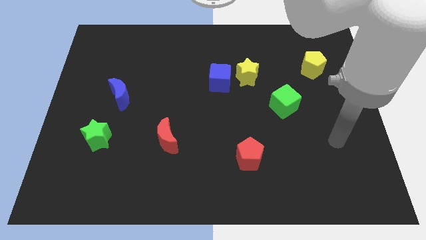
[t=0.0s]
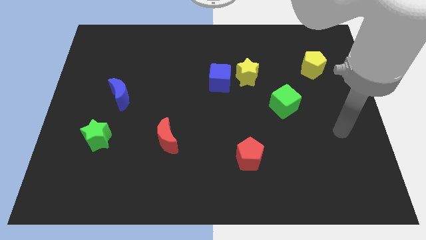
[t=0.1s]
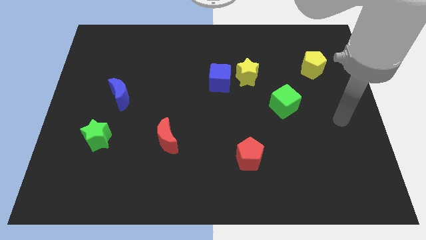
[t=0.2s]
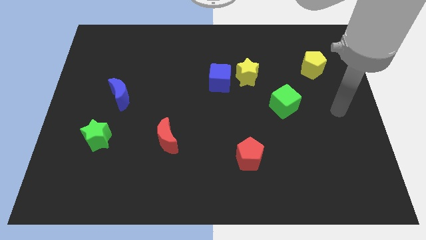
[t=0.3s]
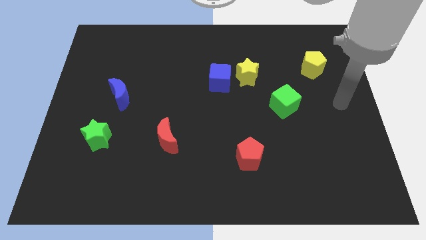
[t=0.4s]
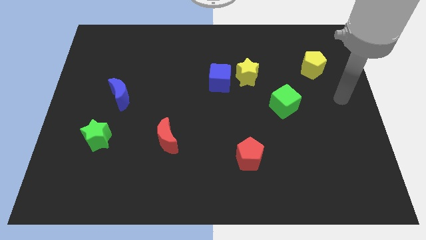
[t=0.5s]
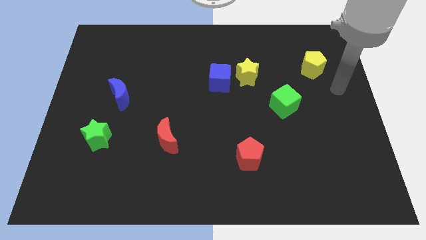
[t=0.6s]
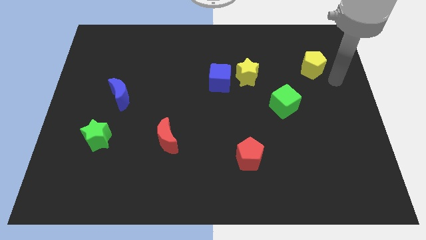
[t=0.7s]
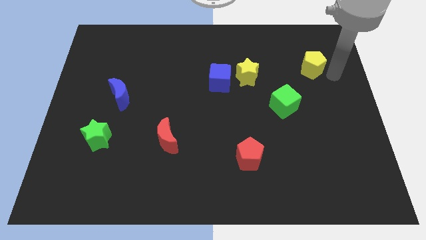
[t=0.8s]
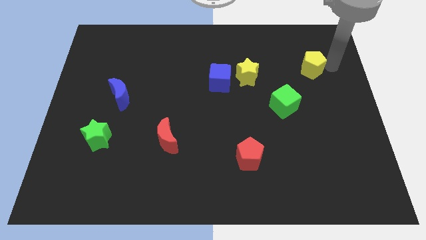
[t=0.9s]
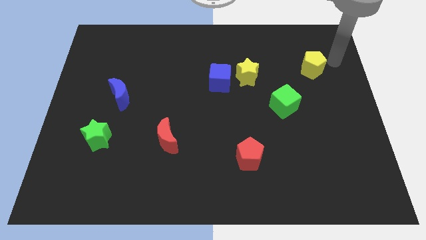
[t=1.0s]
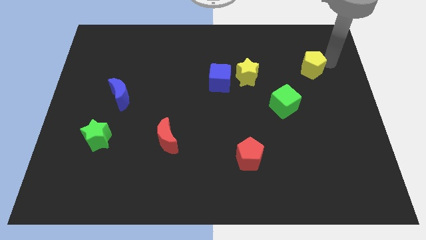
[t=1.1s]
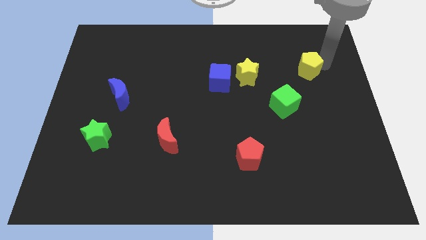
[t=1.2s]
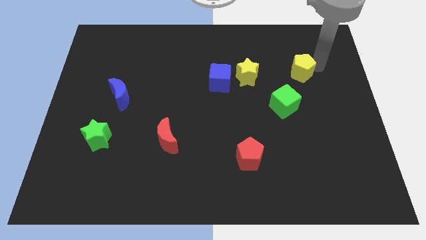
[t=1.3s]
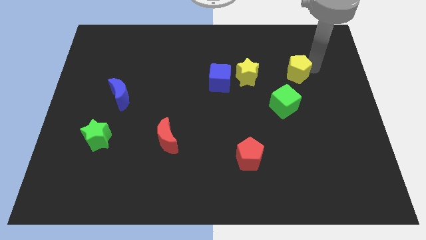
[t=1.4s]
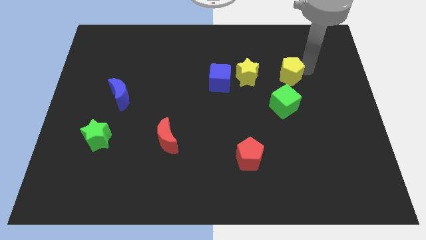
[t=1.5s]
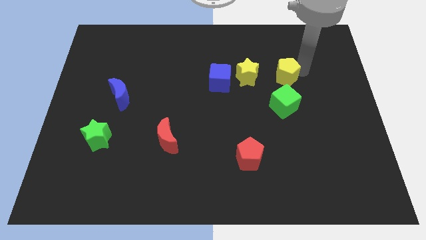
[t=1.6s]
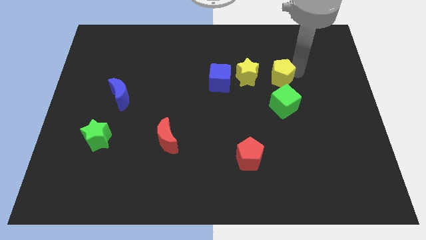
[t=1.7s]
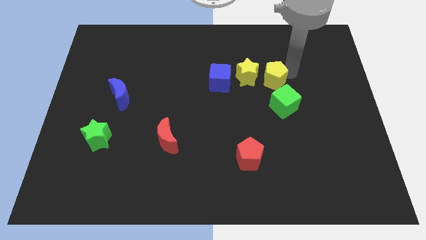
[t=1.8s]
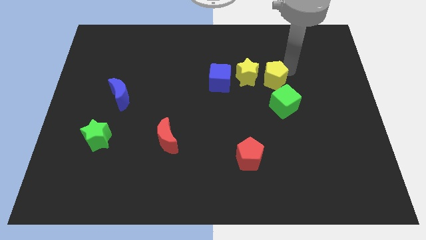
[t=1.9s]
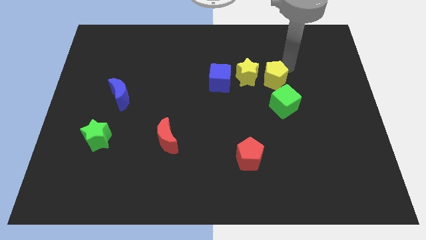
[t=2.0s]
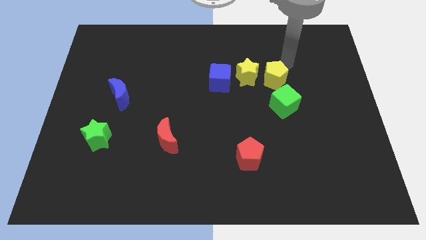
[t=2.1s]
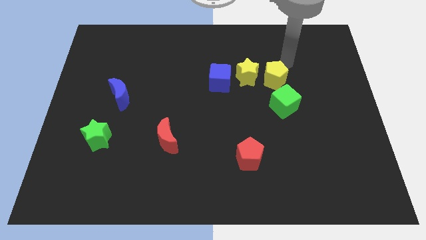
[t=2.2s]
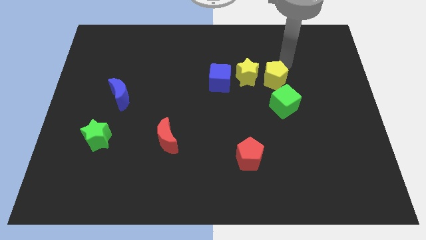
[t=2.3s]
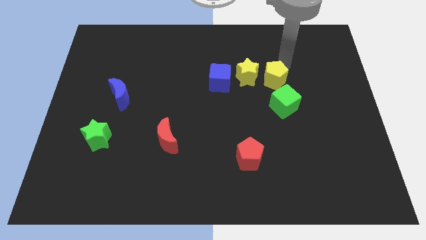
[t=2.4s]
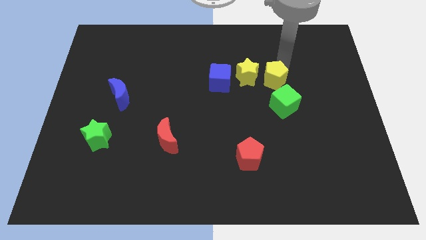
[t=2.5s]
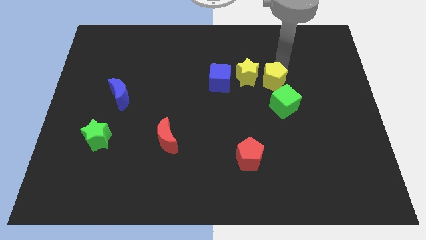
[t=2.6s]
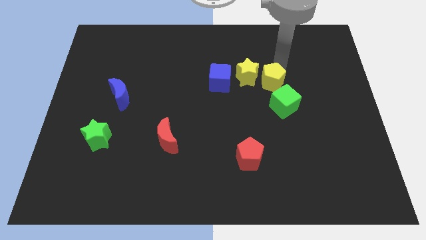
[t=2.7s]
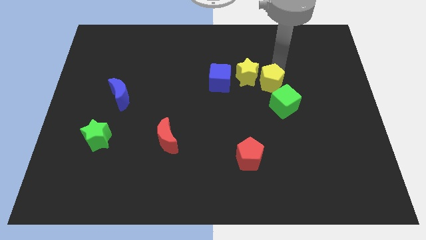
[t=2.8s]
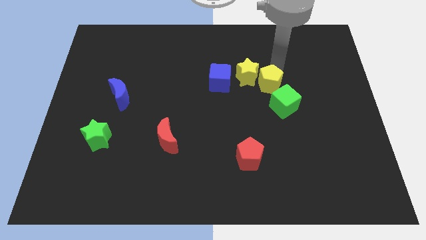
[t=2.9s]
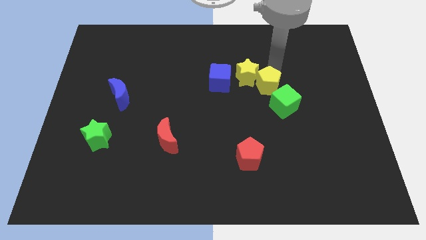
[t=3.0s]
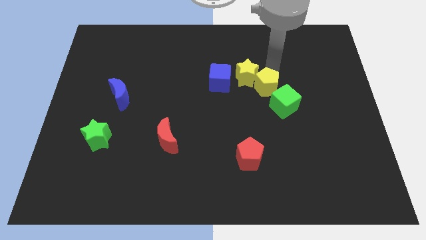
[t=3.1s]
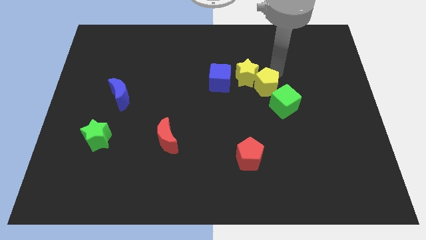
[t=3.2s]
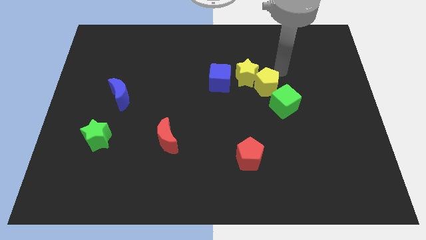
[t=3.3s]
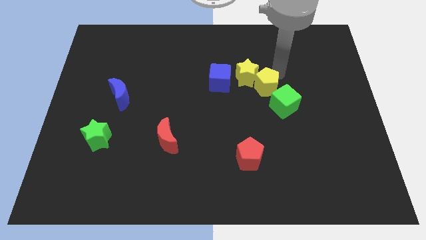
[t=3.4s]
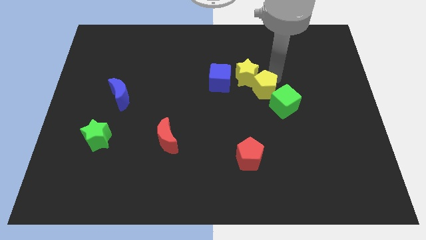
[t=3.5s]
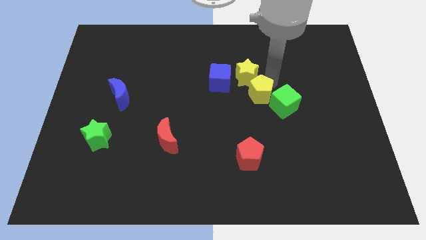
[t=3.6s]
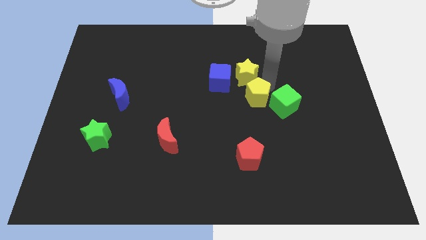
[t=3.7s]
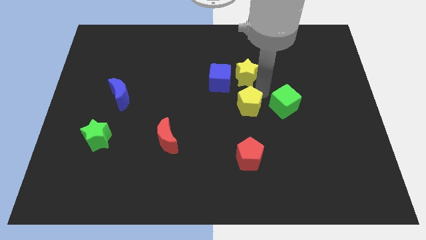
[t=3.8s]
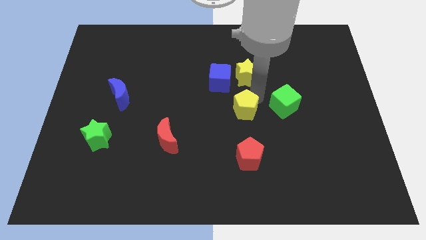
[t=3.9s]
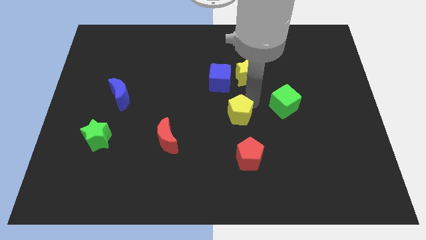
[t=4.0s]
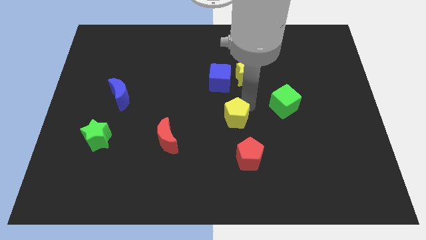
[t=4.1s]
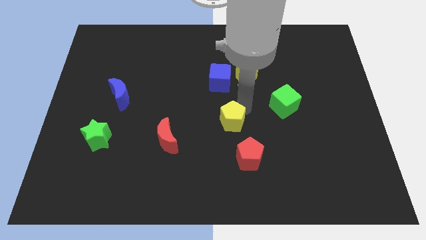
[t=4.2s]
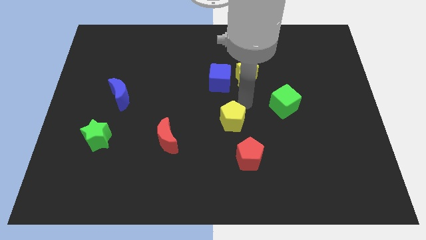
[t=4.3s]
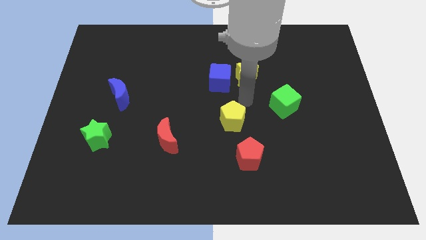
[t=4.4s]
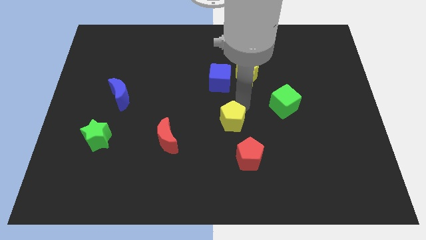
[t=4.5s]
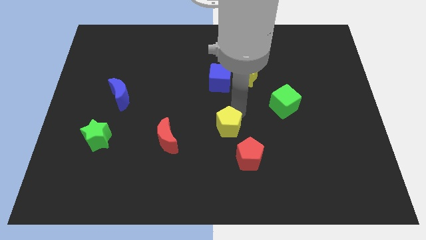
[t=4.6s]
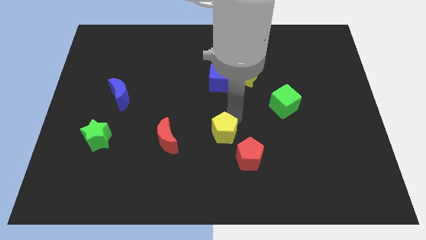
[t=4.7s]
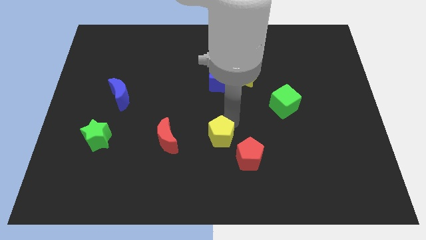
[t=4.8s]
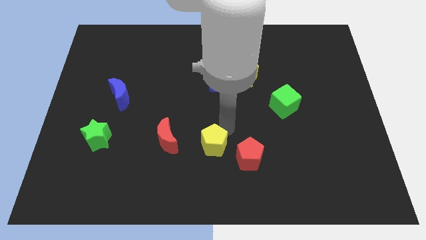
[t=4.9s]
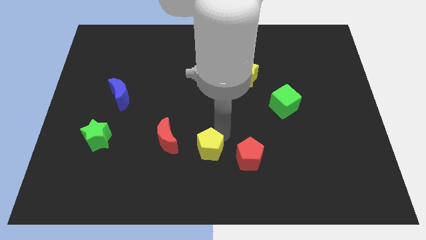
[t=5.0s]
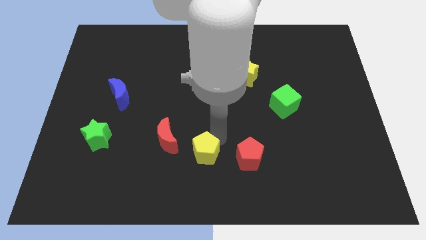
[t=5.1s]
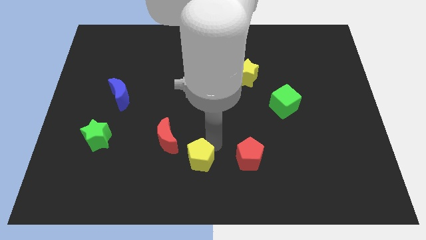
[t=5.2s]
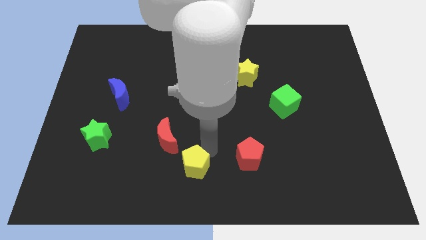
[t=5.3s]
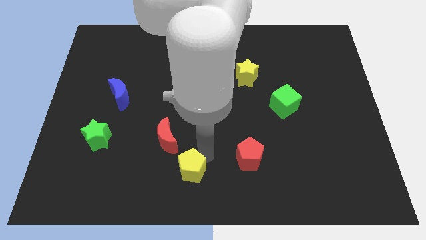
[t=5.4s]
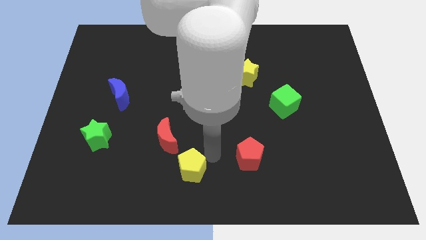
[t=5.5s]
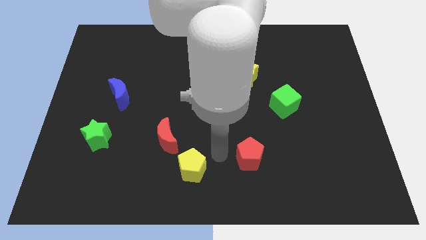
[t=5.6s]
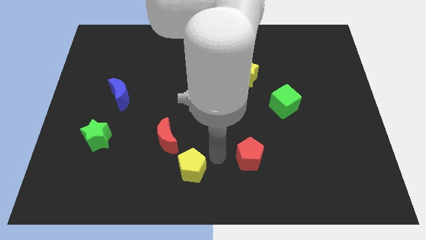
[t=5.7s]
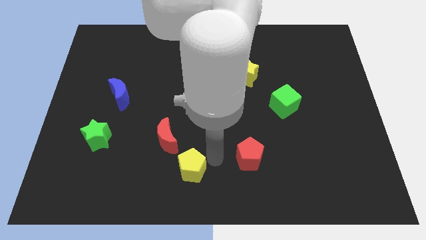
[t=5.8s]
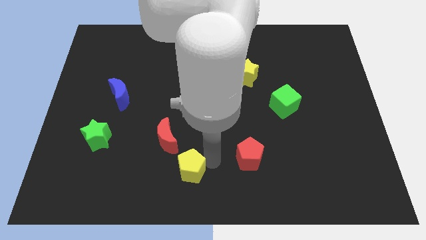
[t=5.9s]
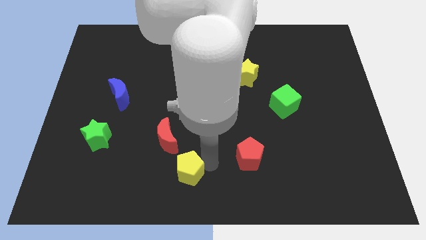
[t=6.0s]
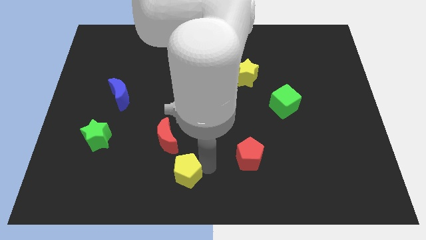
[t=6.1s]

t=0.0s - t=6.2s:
put the yellow pentagon below the red moon

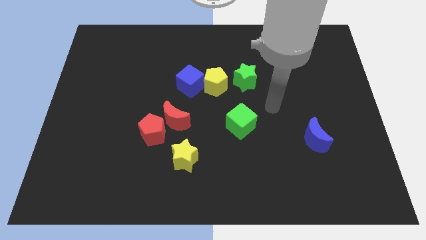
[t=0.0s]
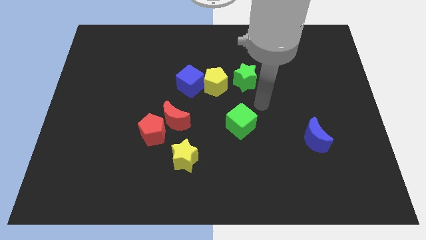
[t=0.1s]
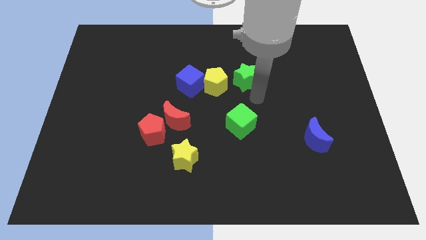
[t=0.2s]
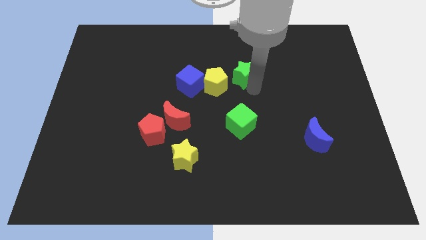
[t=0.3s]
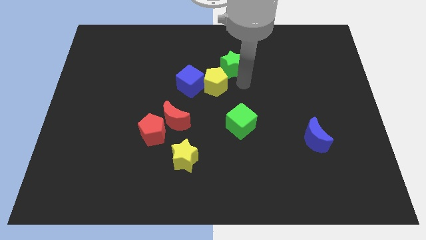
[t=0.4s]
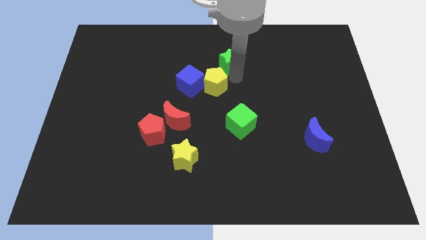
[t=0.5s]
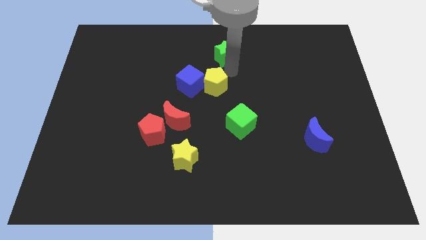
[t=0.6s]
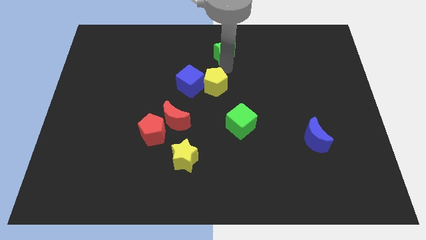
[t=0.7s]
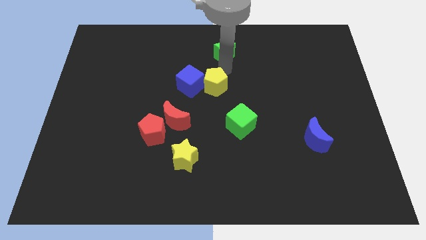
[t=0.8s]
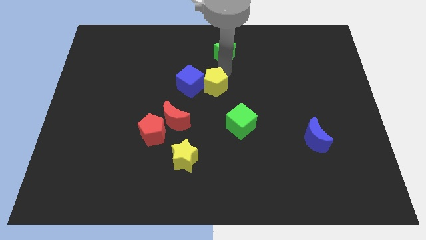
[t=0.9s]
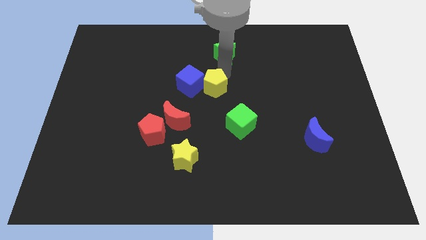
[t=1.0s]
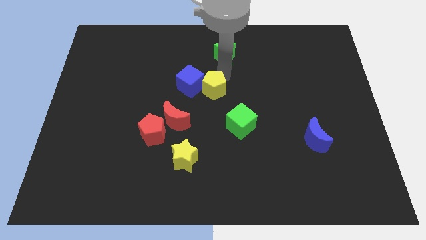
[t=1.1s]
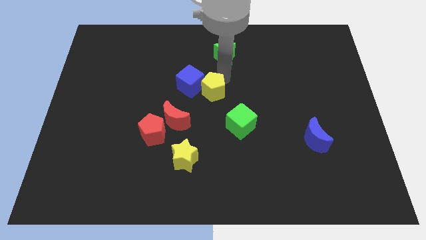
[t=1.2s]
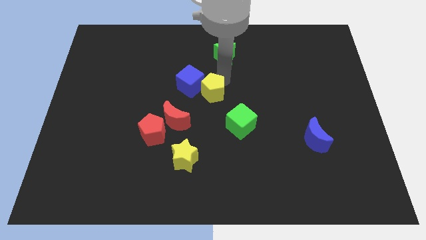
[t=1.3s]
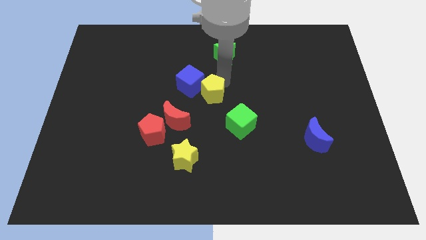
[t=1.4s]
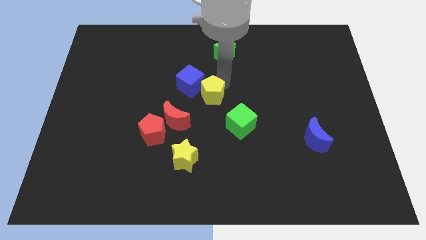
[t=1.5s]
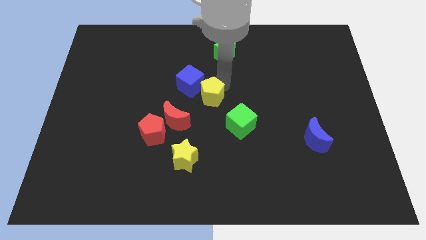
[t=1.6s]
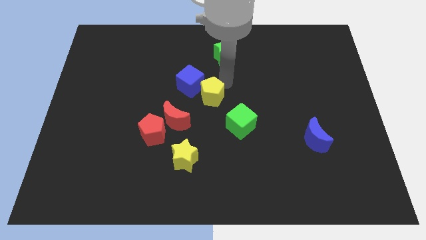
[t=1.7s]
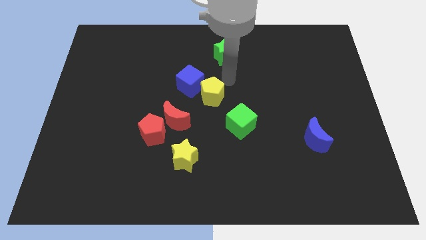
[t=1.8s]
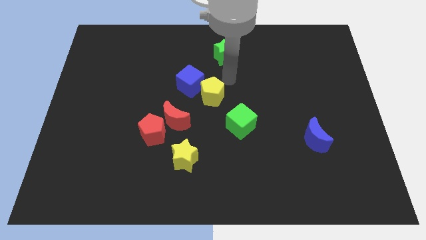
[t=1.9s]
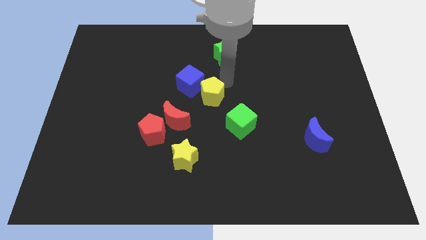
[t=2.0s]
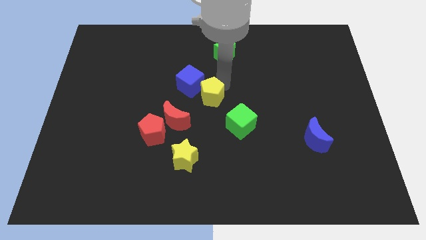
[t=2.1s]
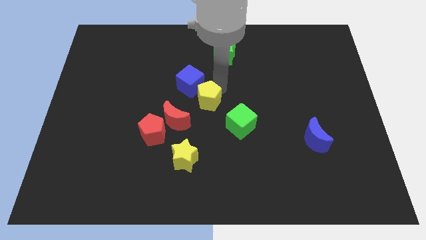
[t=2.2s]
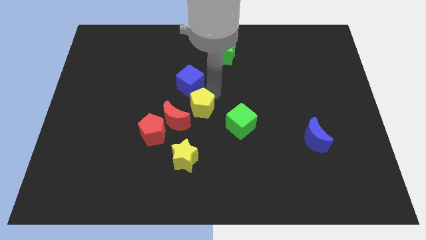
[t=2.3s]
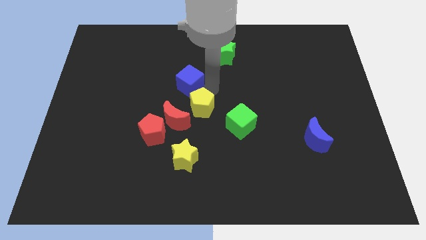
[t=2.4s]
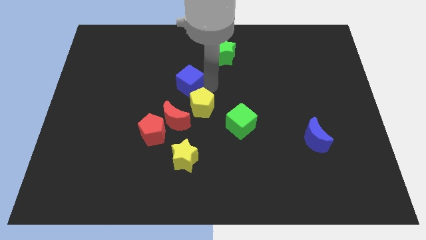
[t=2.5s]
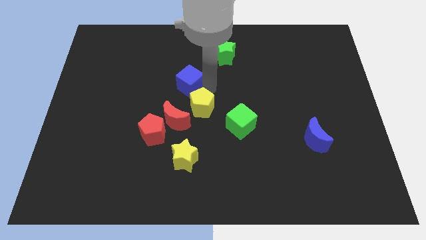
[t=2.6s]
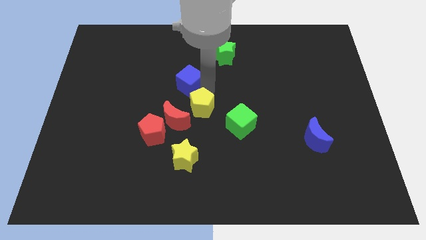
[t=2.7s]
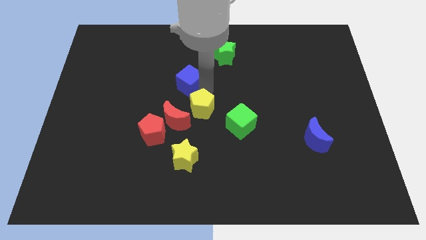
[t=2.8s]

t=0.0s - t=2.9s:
push the yellow pentagon to the left side of the green cube
